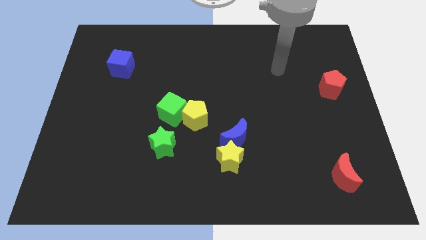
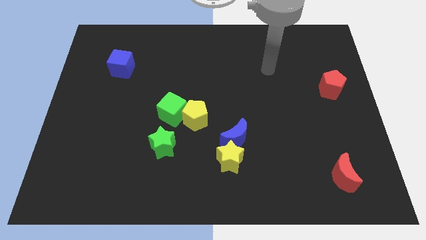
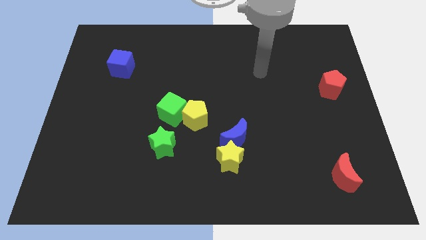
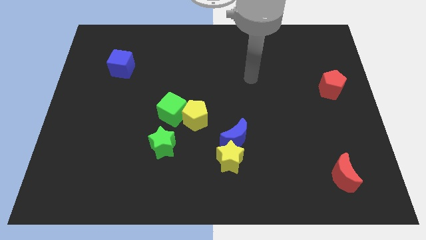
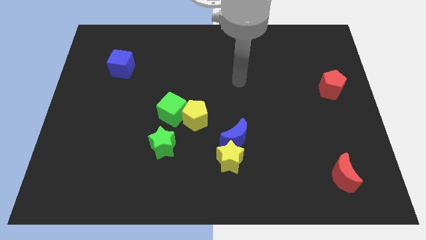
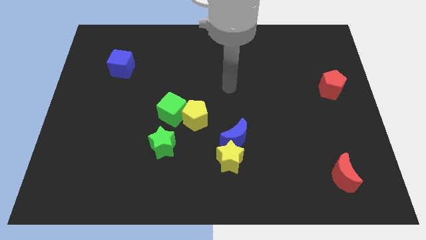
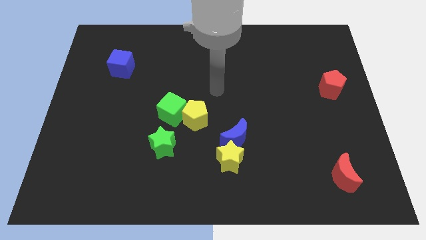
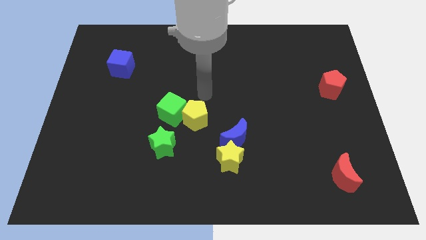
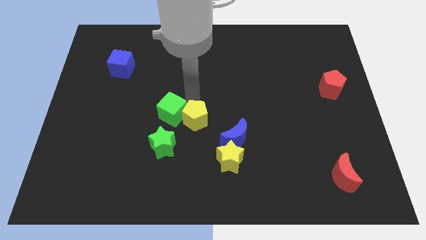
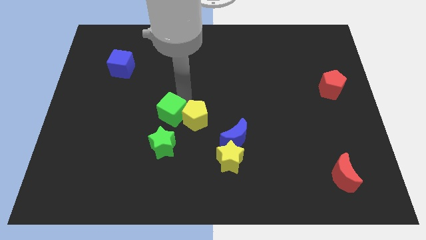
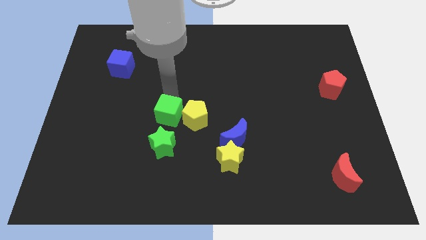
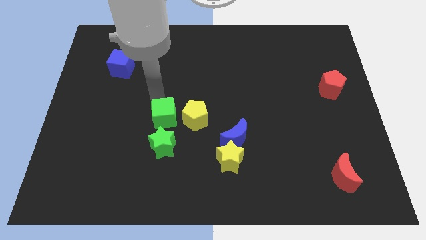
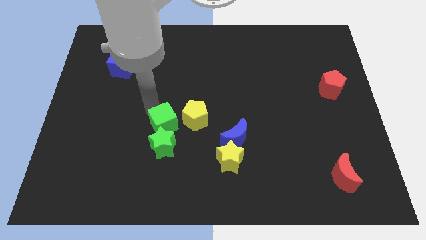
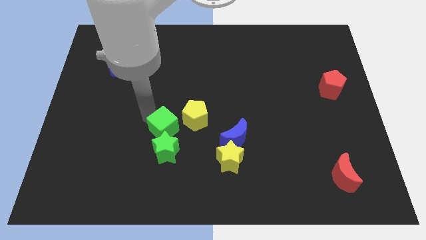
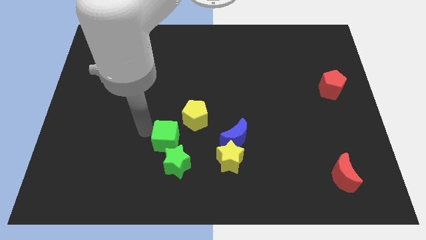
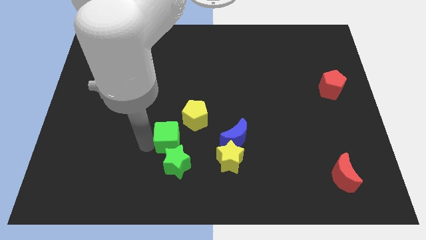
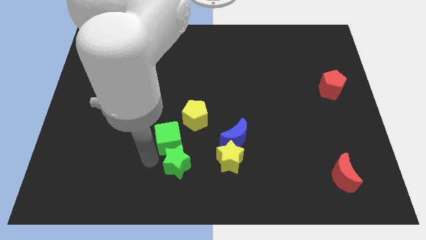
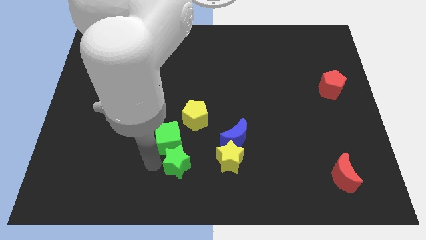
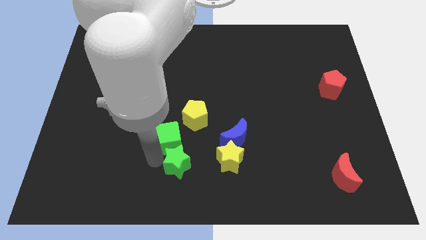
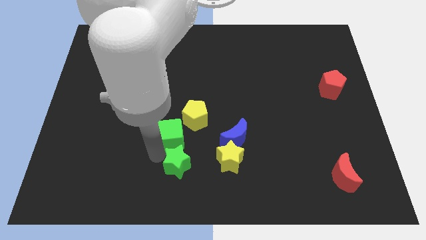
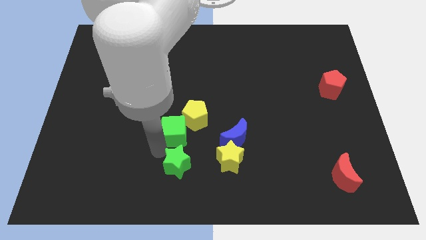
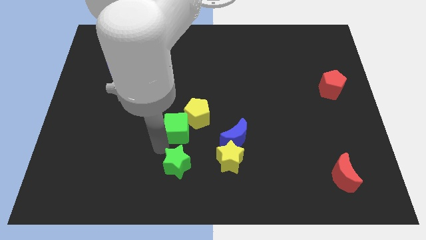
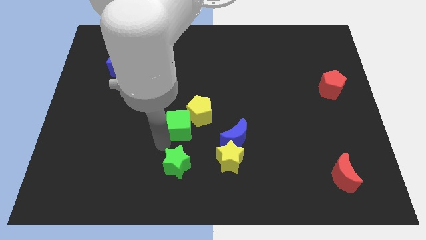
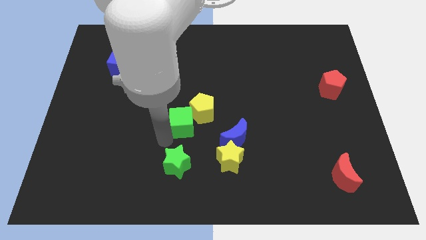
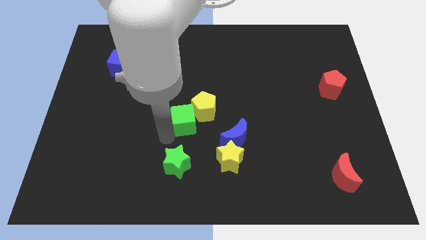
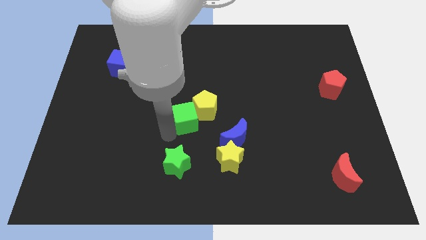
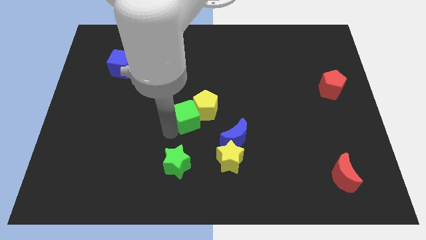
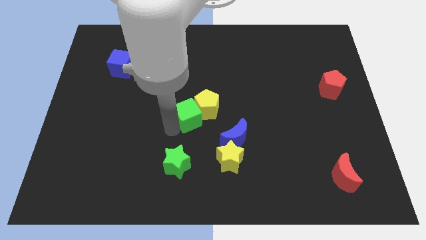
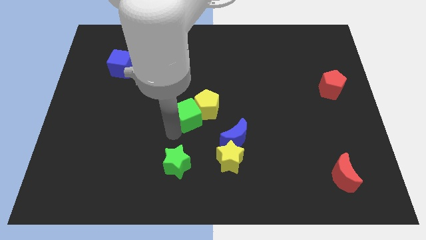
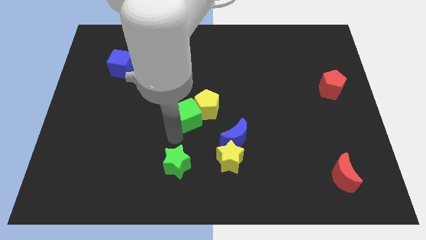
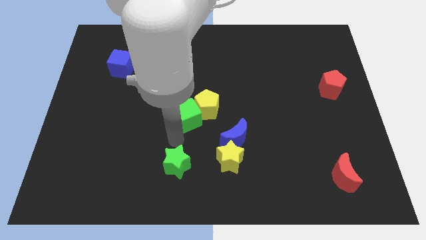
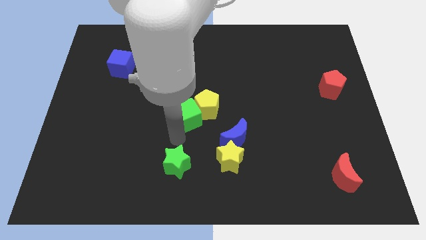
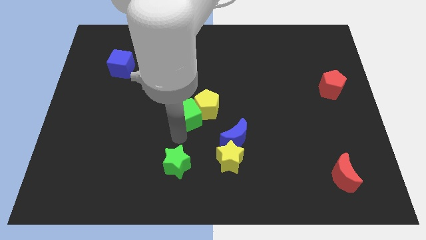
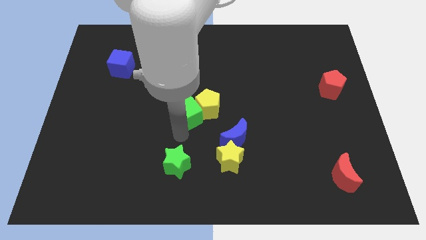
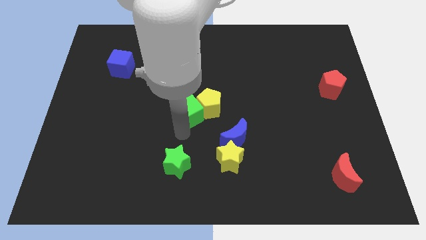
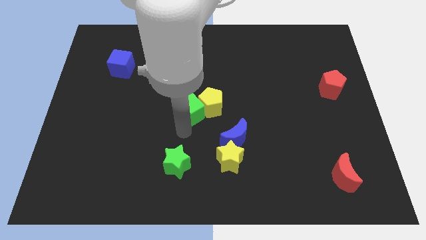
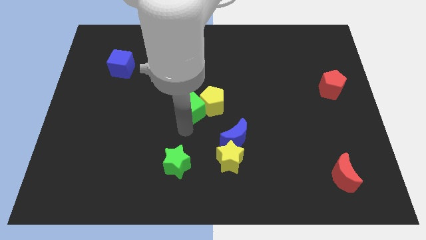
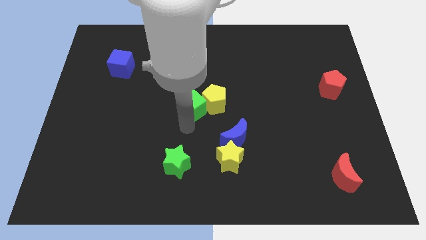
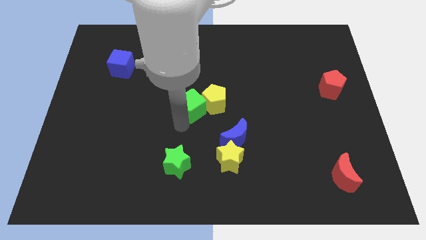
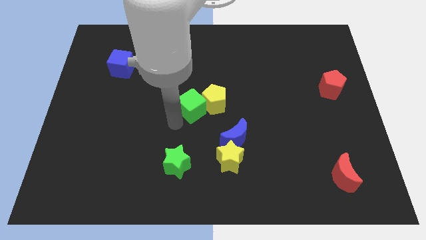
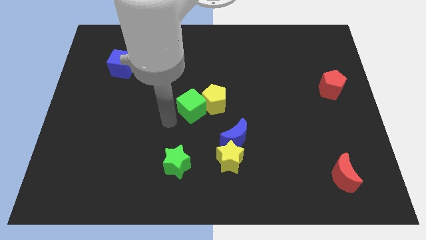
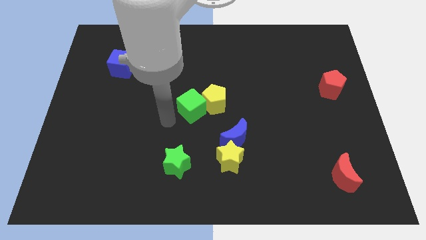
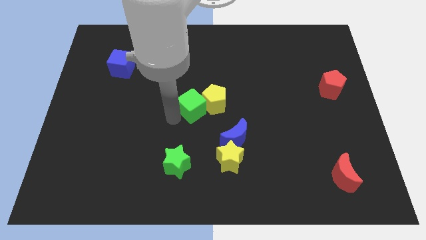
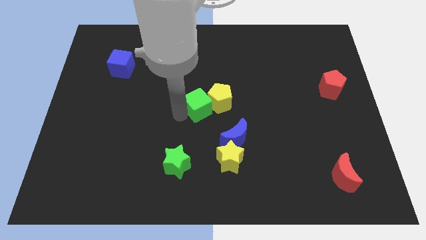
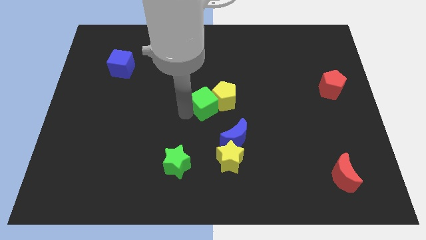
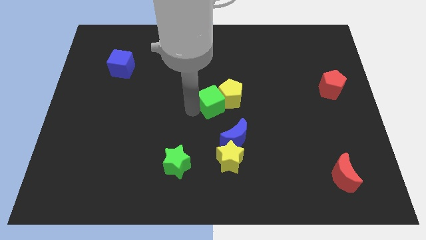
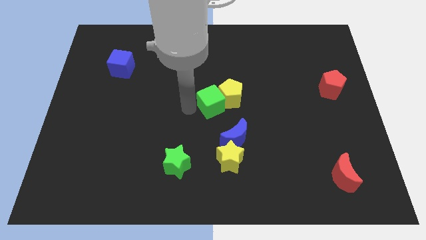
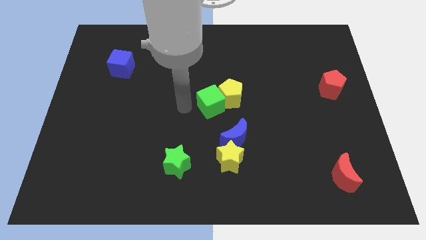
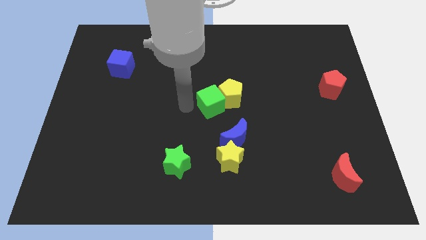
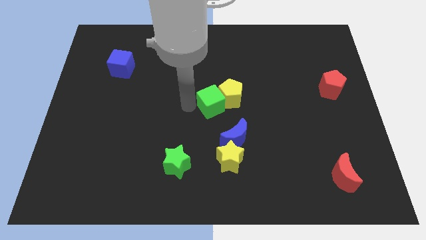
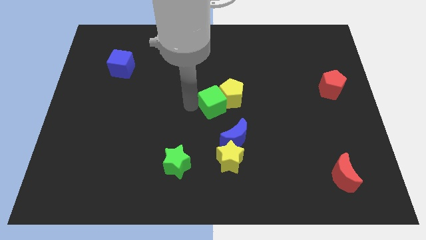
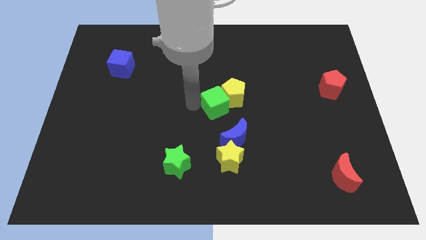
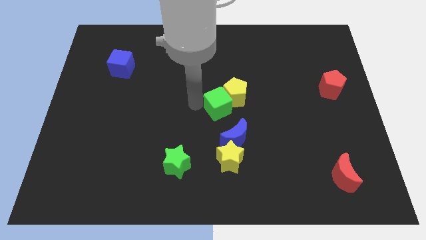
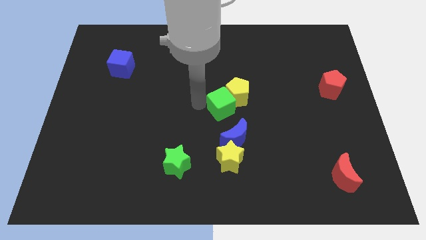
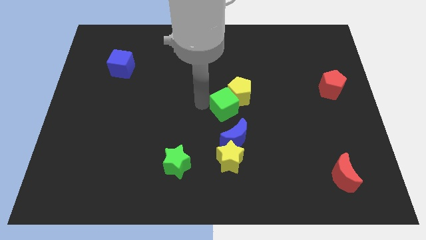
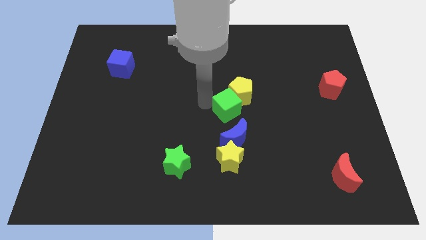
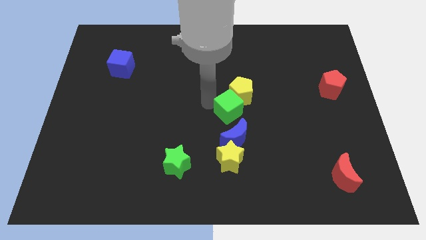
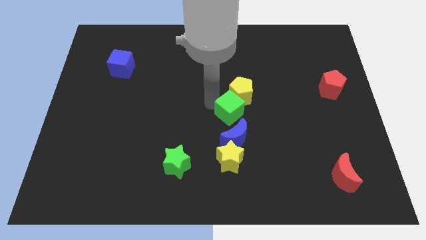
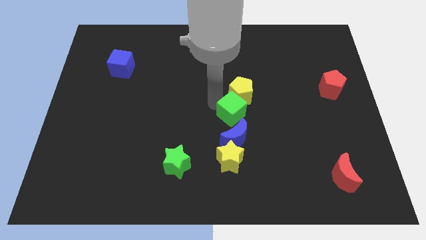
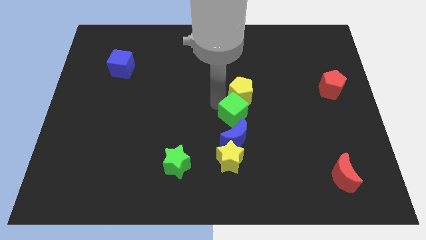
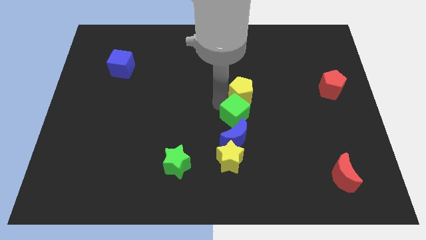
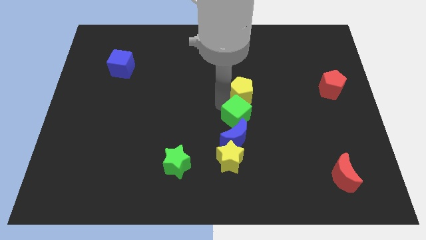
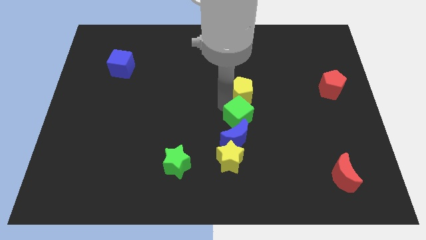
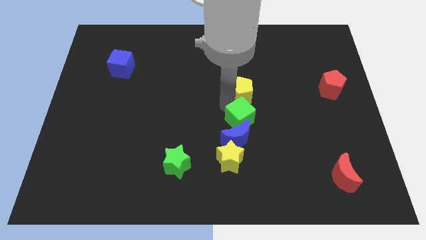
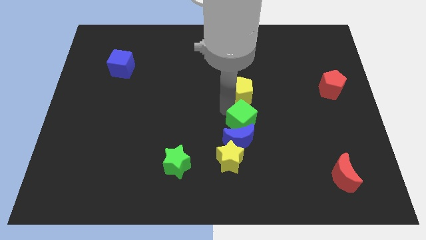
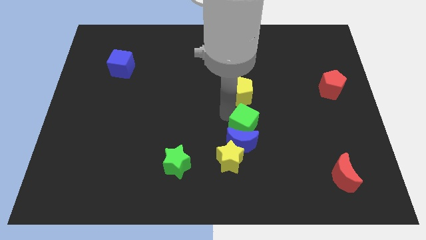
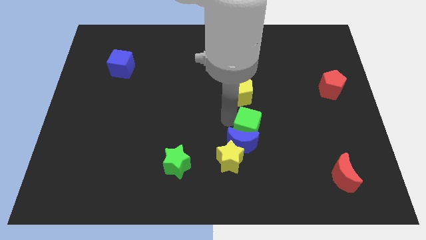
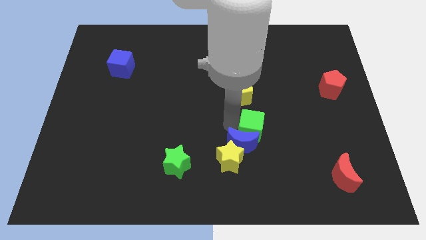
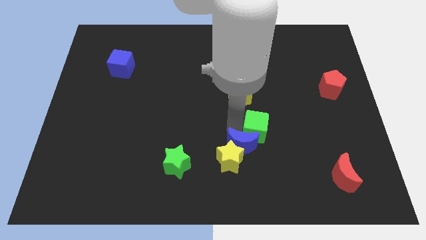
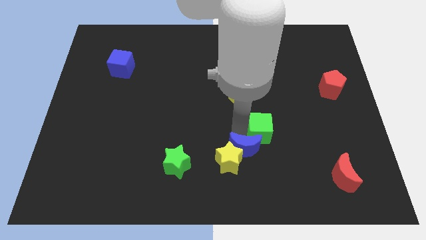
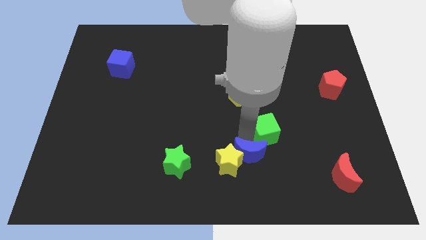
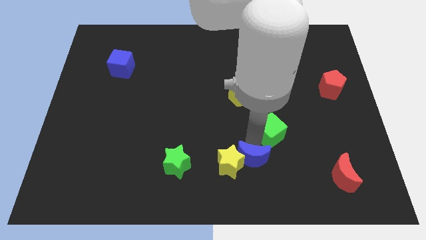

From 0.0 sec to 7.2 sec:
move the green cube right

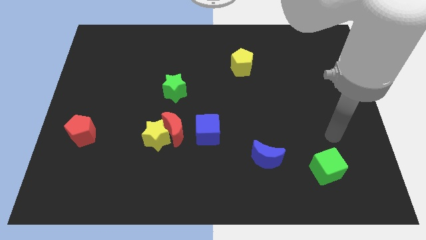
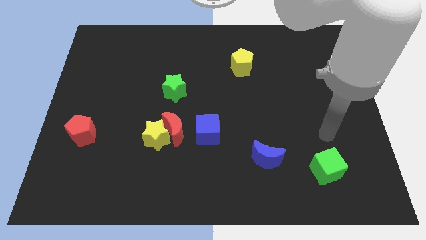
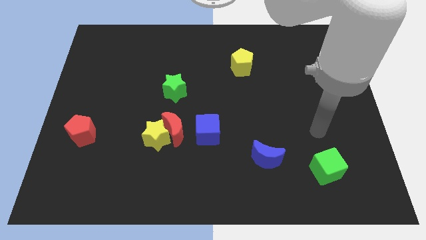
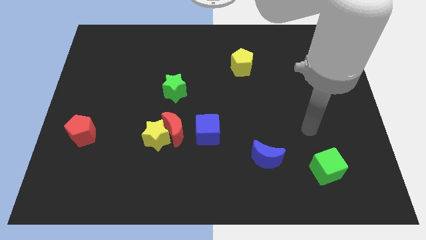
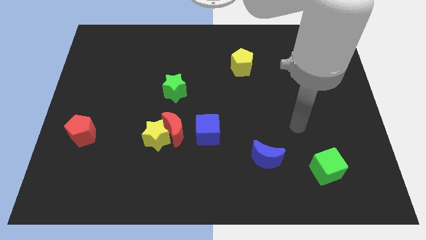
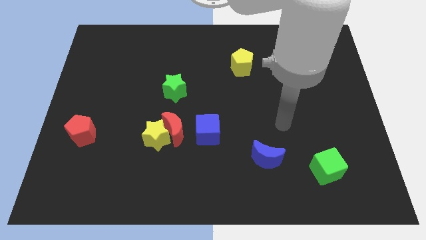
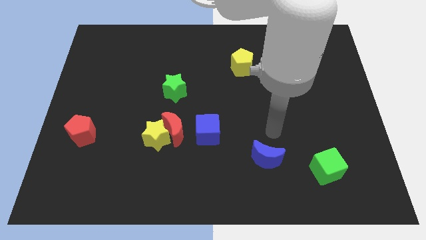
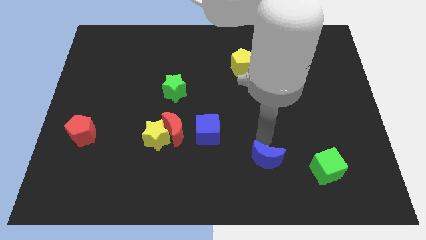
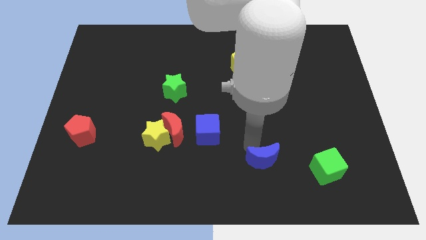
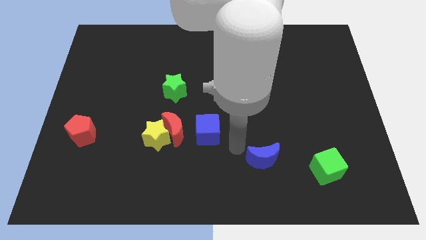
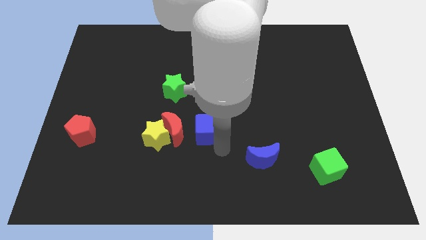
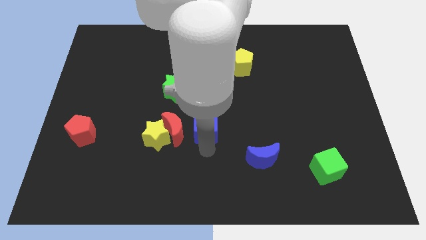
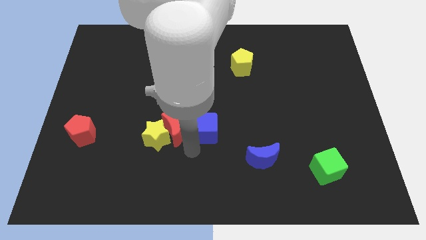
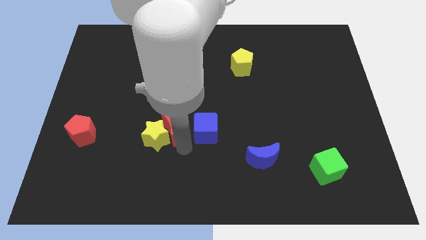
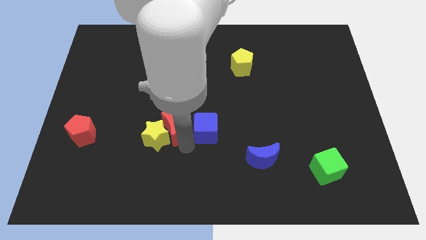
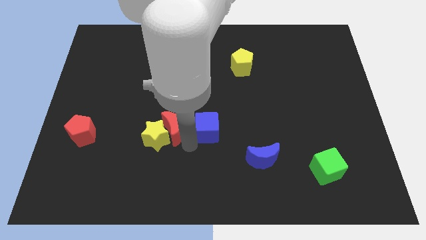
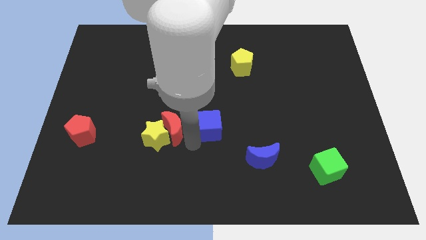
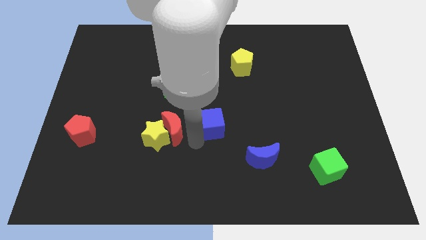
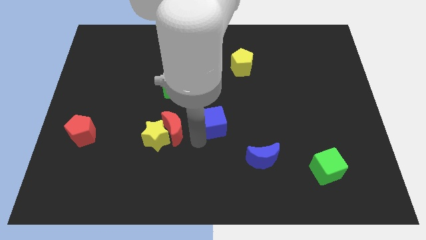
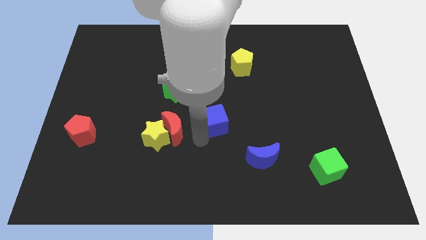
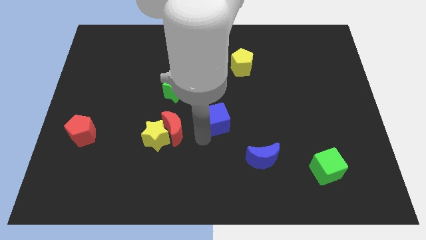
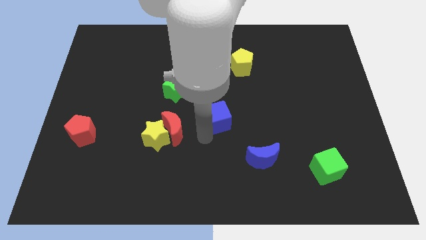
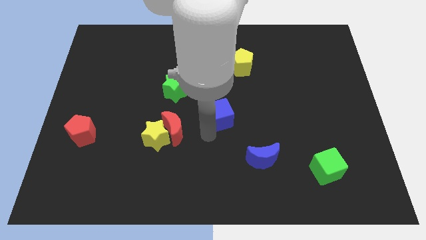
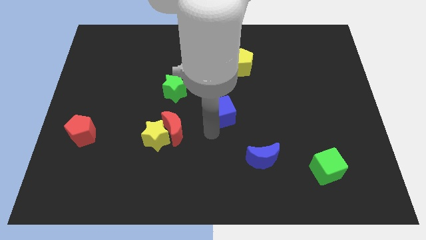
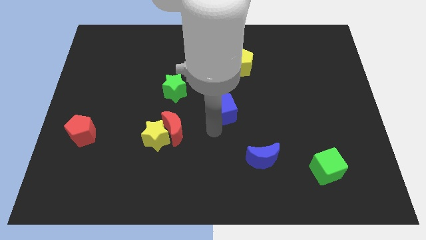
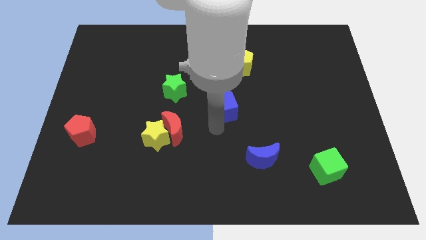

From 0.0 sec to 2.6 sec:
slide the blue cube somewhat diagonally up and right
